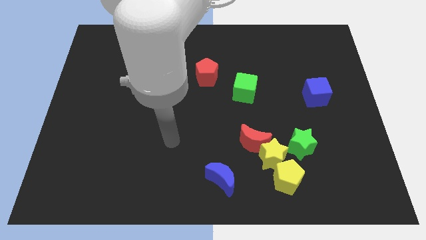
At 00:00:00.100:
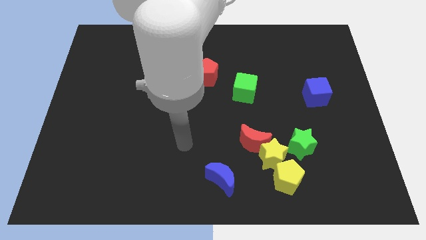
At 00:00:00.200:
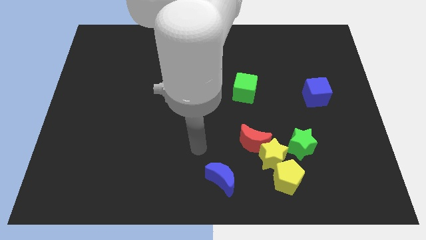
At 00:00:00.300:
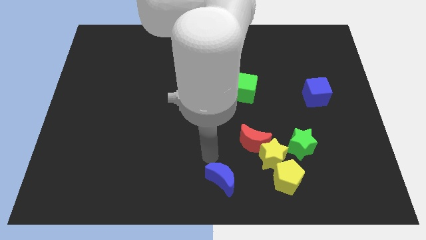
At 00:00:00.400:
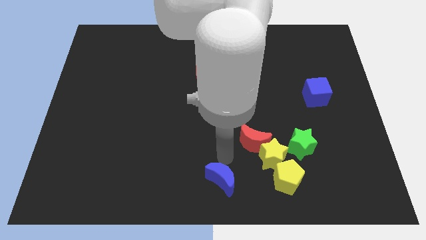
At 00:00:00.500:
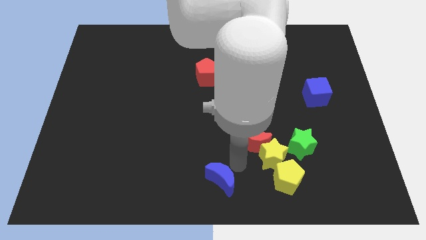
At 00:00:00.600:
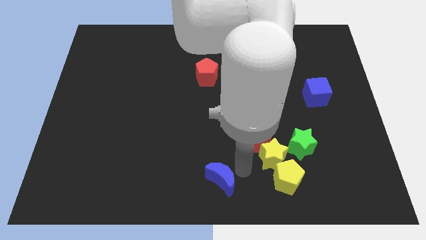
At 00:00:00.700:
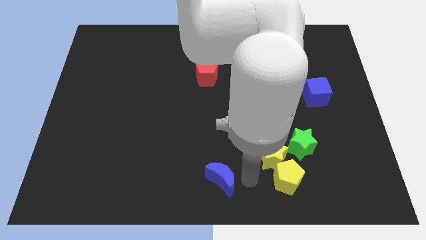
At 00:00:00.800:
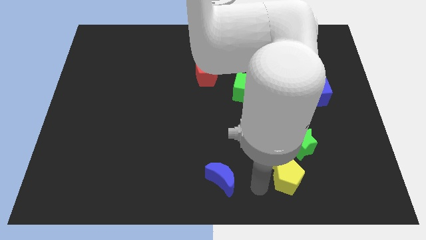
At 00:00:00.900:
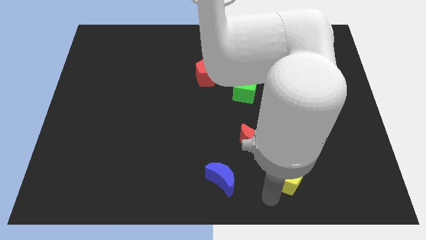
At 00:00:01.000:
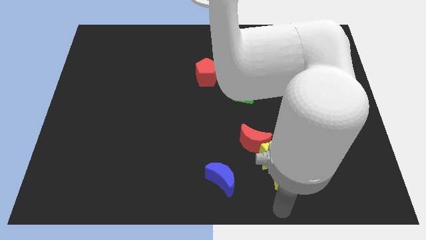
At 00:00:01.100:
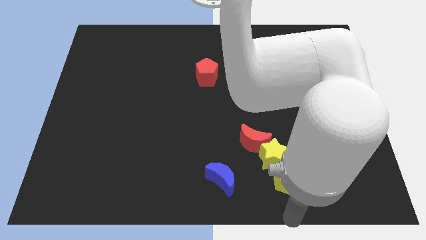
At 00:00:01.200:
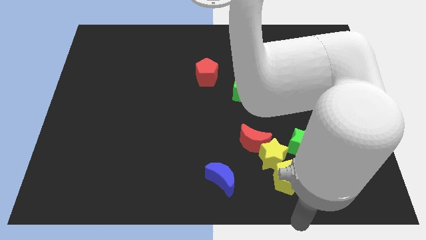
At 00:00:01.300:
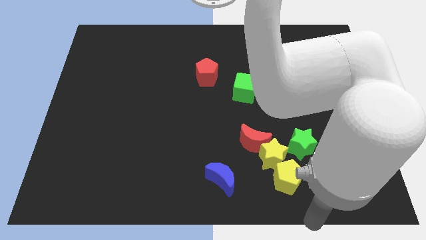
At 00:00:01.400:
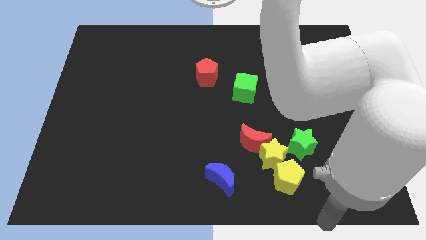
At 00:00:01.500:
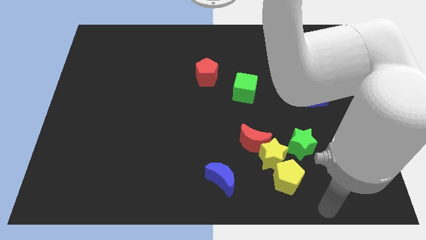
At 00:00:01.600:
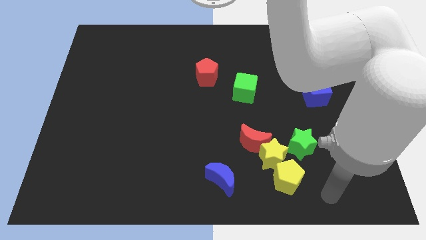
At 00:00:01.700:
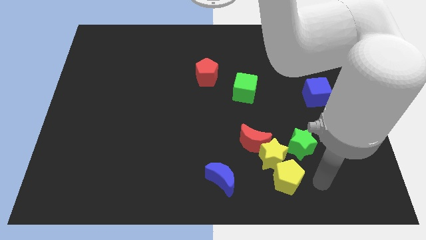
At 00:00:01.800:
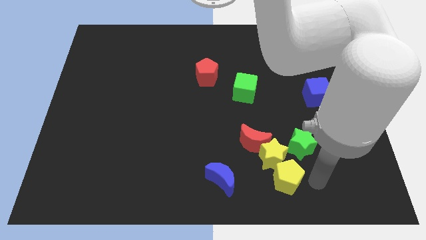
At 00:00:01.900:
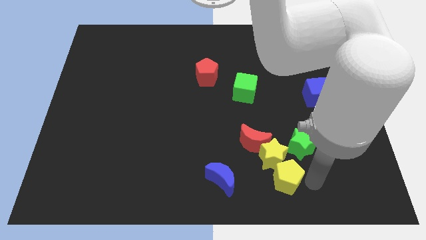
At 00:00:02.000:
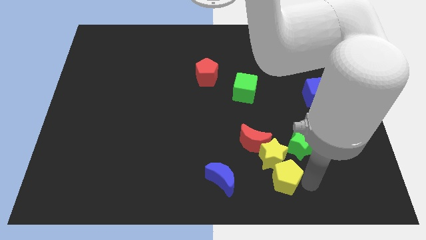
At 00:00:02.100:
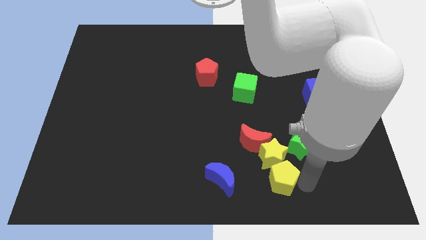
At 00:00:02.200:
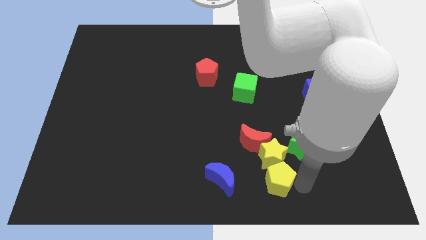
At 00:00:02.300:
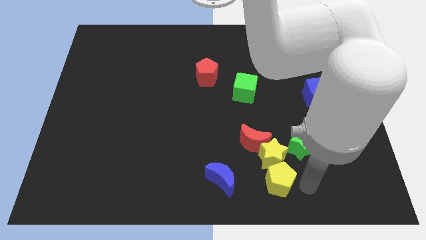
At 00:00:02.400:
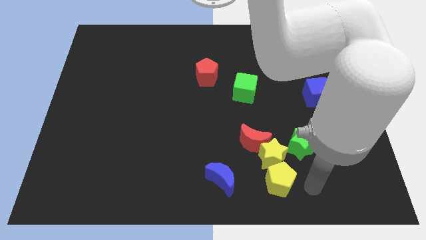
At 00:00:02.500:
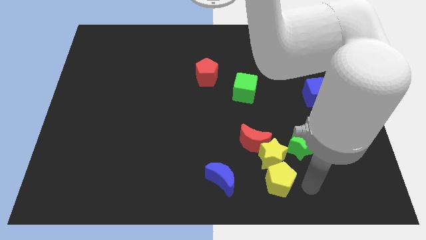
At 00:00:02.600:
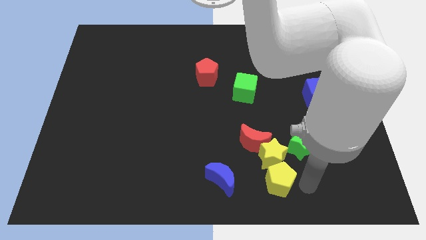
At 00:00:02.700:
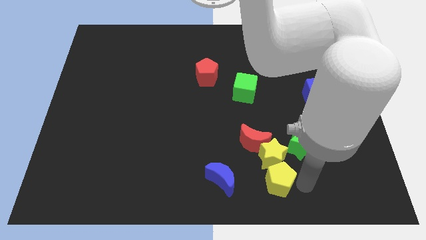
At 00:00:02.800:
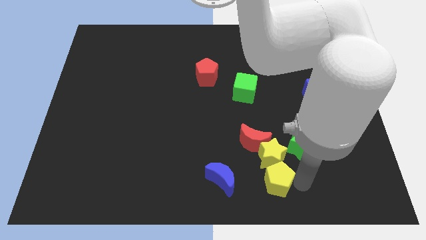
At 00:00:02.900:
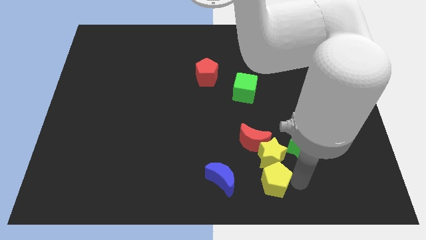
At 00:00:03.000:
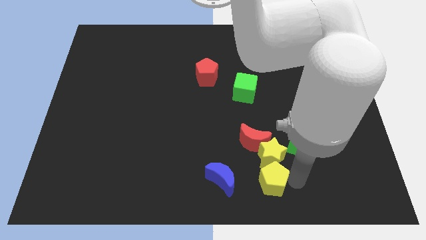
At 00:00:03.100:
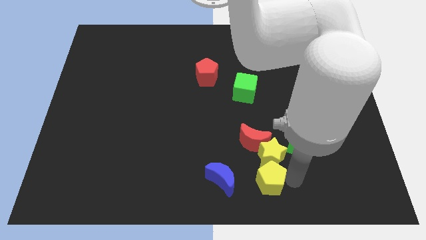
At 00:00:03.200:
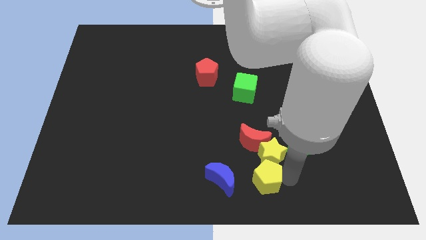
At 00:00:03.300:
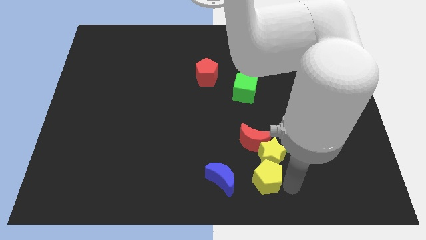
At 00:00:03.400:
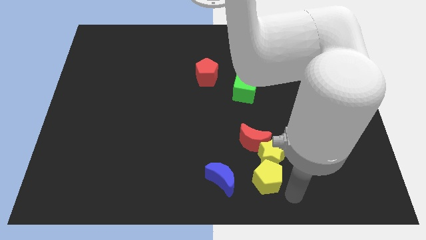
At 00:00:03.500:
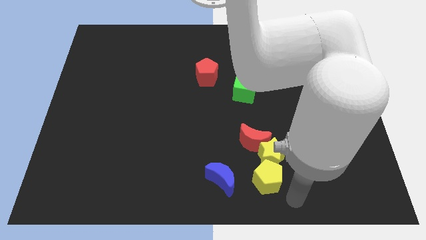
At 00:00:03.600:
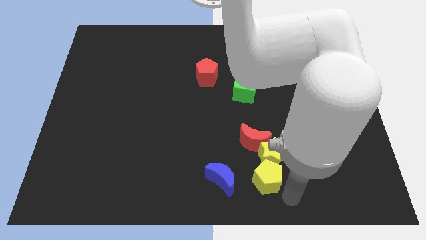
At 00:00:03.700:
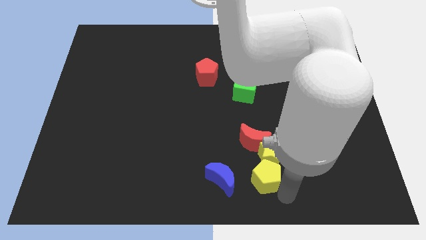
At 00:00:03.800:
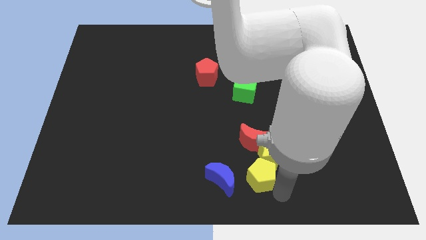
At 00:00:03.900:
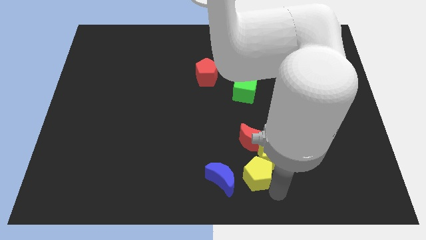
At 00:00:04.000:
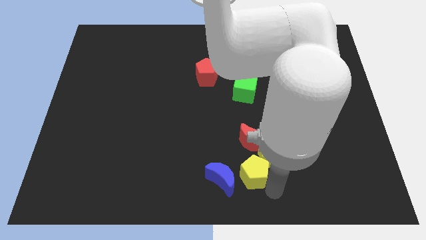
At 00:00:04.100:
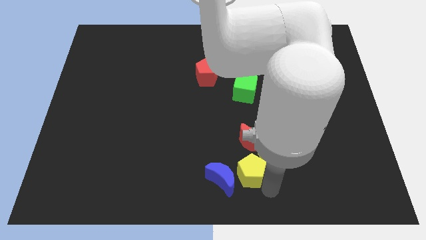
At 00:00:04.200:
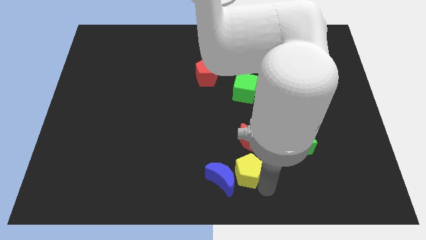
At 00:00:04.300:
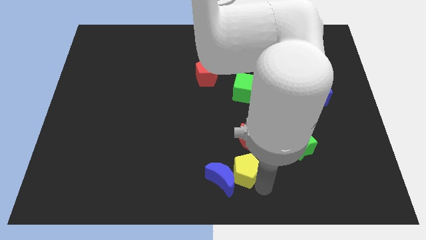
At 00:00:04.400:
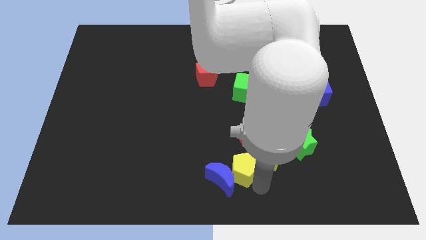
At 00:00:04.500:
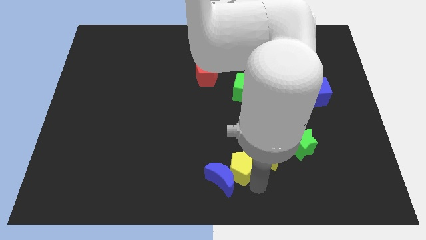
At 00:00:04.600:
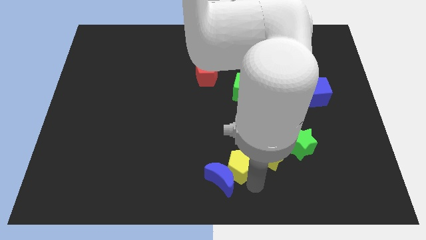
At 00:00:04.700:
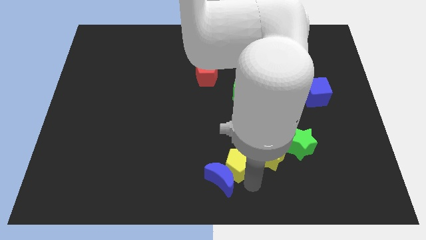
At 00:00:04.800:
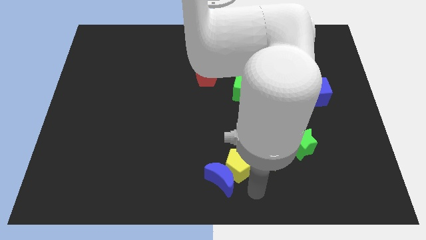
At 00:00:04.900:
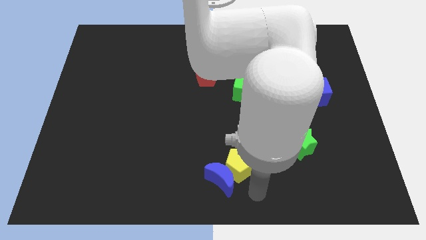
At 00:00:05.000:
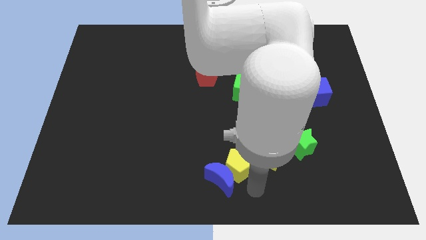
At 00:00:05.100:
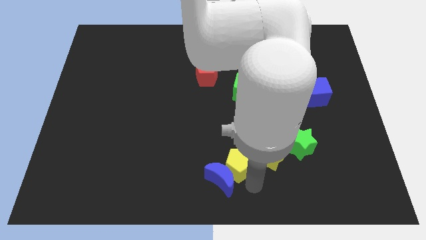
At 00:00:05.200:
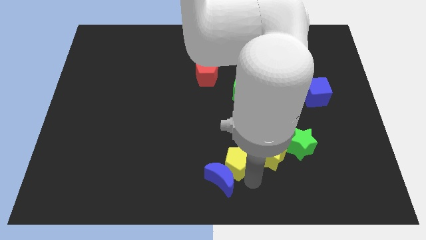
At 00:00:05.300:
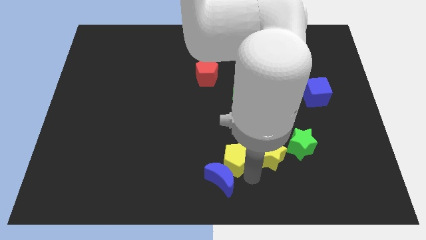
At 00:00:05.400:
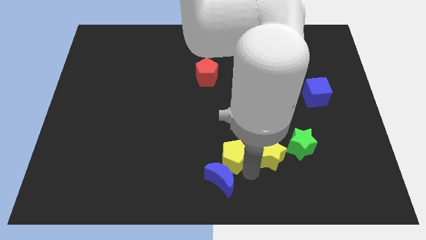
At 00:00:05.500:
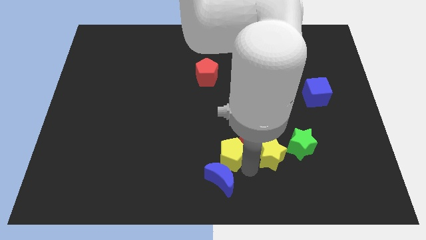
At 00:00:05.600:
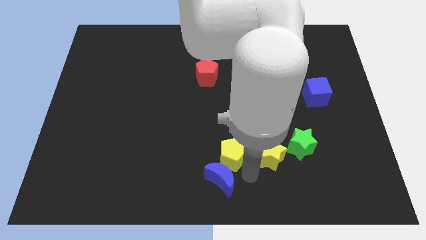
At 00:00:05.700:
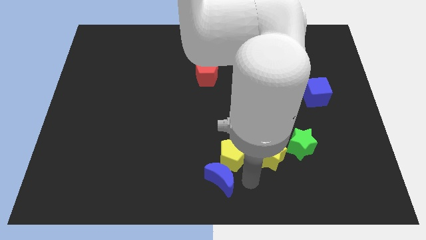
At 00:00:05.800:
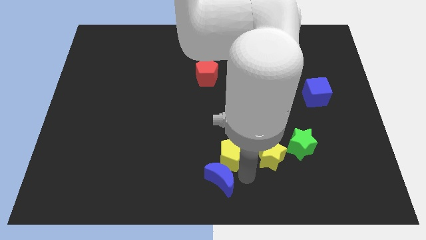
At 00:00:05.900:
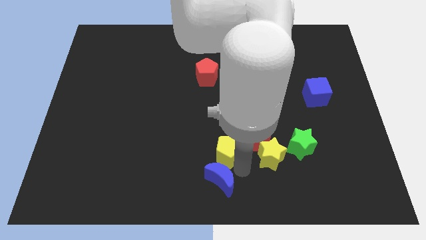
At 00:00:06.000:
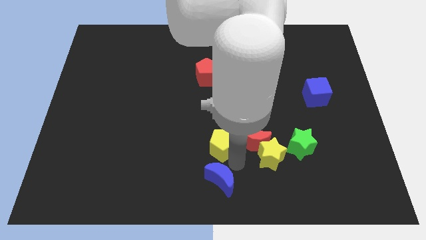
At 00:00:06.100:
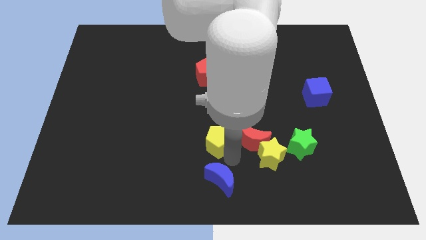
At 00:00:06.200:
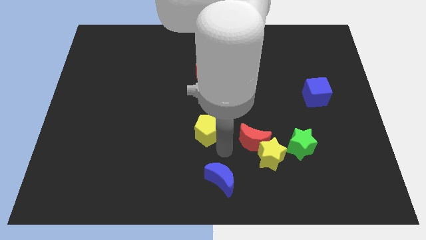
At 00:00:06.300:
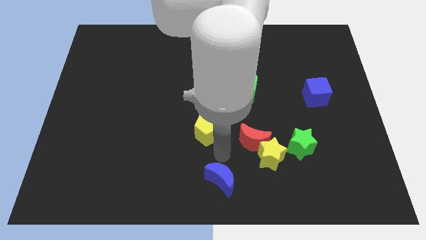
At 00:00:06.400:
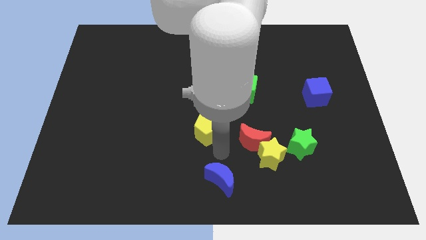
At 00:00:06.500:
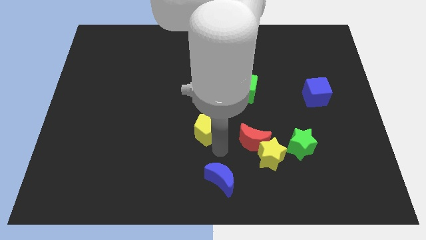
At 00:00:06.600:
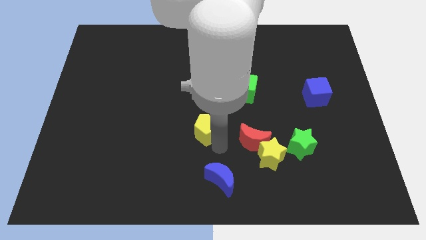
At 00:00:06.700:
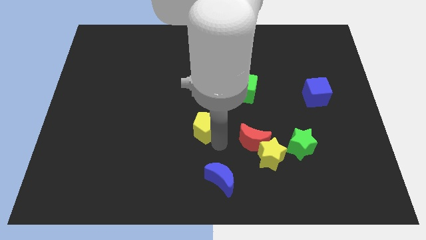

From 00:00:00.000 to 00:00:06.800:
push the yellow pentagon upwards and to the left

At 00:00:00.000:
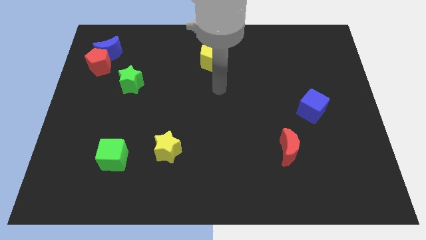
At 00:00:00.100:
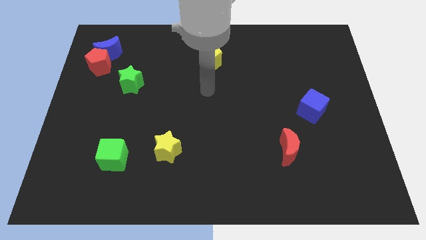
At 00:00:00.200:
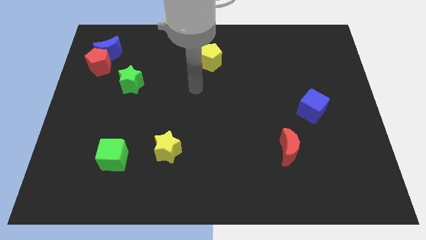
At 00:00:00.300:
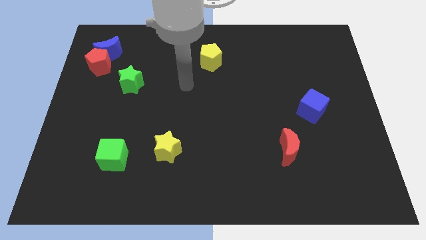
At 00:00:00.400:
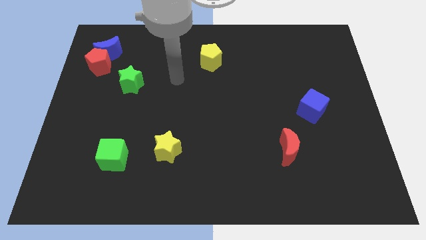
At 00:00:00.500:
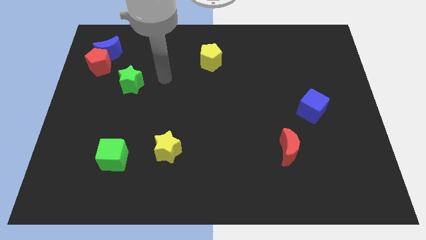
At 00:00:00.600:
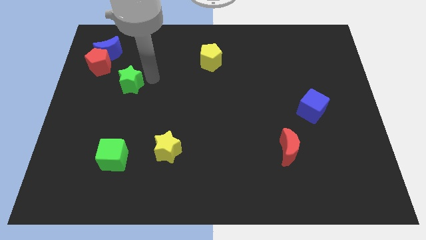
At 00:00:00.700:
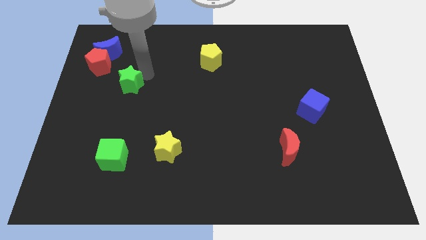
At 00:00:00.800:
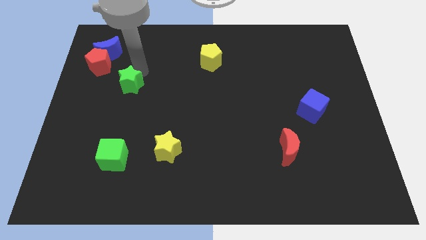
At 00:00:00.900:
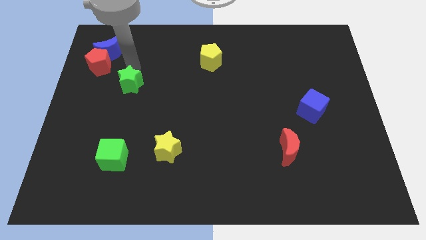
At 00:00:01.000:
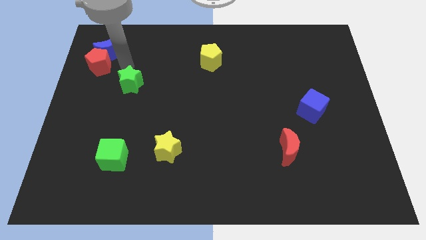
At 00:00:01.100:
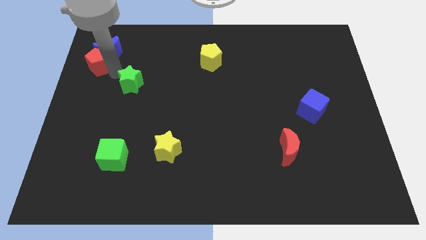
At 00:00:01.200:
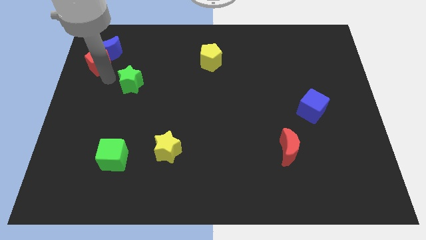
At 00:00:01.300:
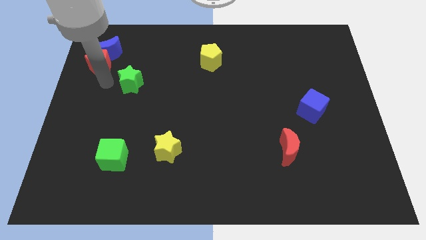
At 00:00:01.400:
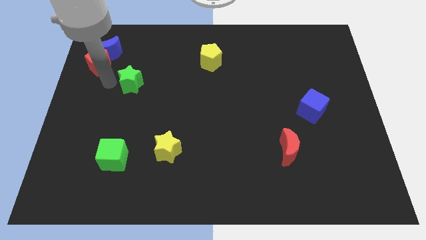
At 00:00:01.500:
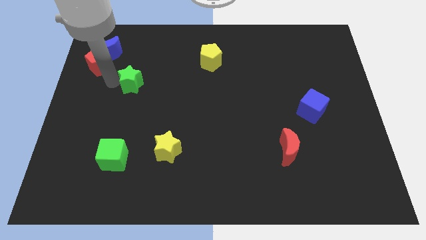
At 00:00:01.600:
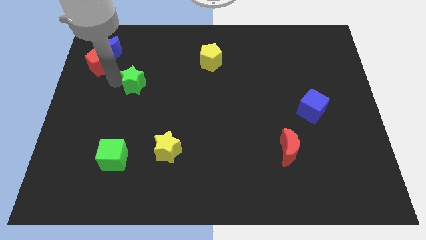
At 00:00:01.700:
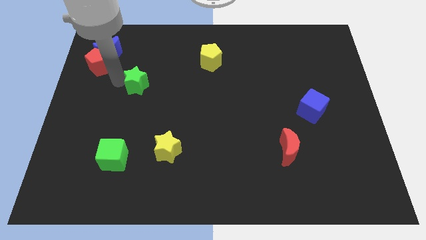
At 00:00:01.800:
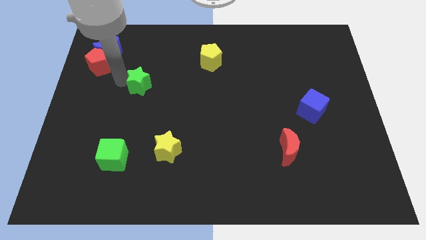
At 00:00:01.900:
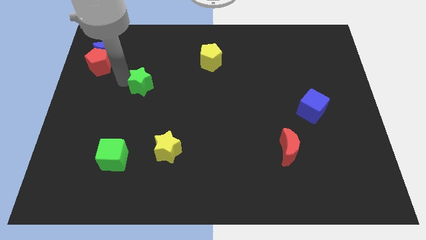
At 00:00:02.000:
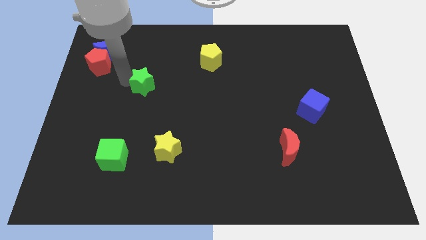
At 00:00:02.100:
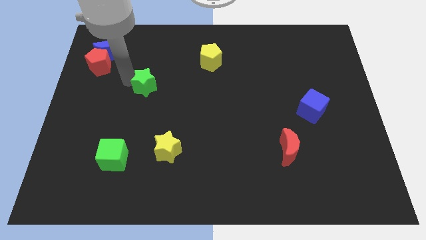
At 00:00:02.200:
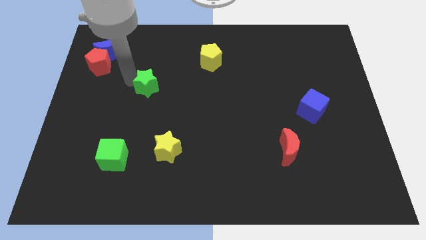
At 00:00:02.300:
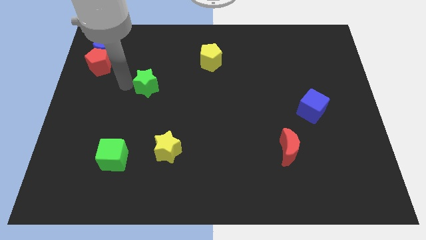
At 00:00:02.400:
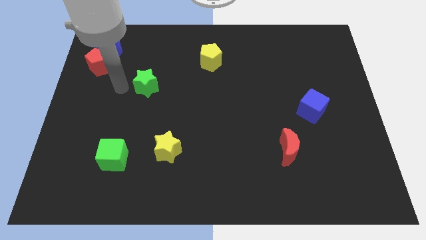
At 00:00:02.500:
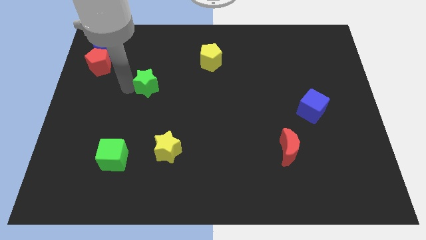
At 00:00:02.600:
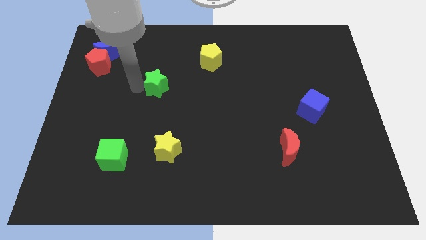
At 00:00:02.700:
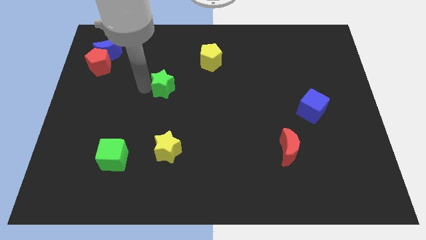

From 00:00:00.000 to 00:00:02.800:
move the green star a bit right
